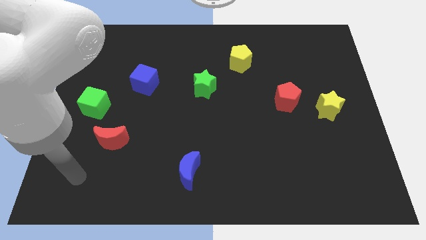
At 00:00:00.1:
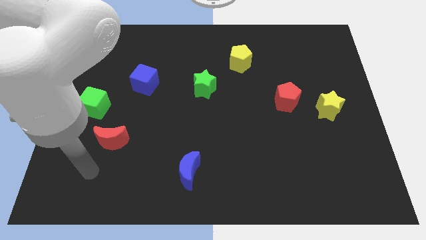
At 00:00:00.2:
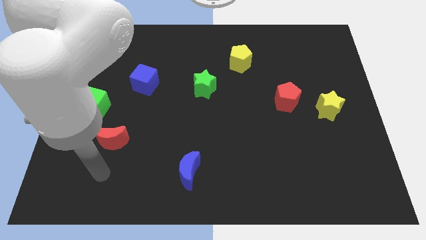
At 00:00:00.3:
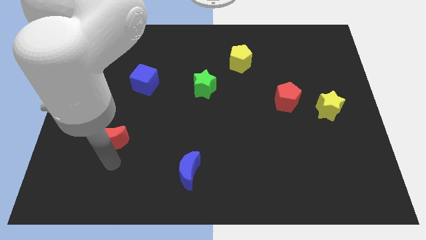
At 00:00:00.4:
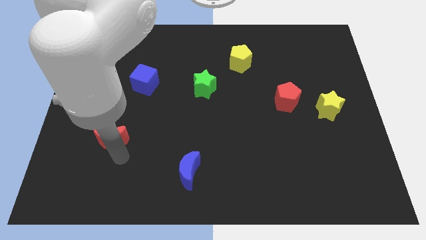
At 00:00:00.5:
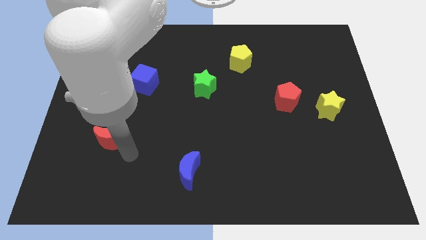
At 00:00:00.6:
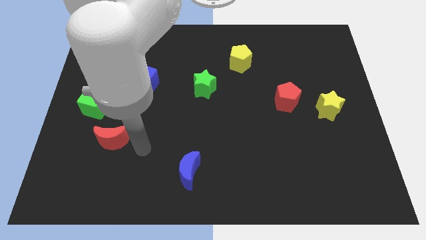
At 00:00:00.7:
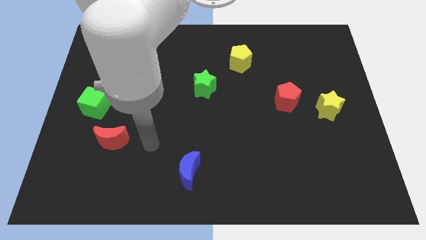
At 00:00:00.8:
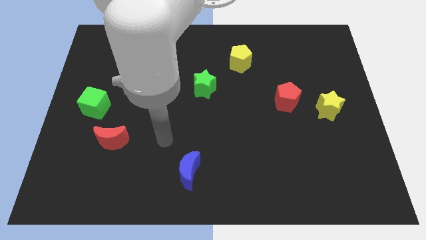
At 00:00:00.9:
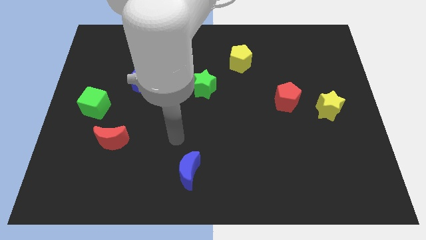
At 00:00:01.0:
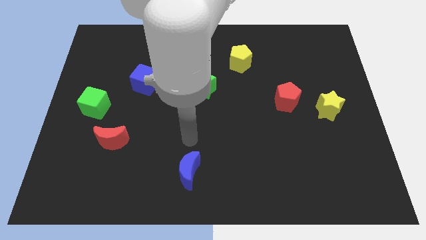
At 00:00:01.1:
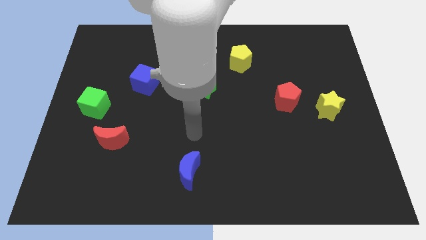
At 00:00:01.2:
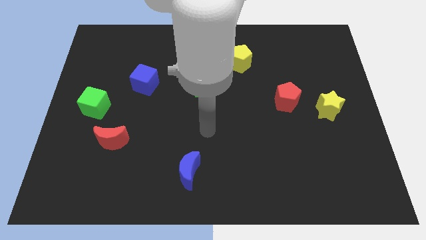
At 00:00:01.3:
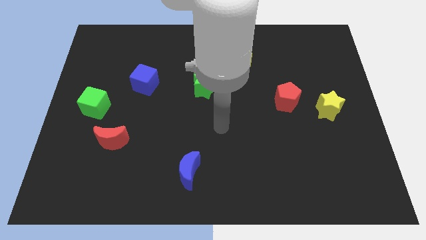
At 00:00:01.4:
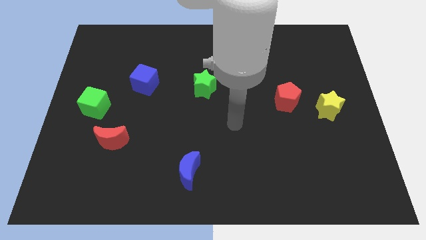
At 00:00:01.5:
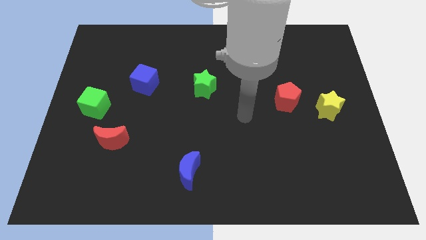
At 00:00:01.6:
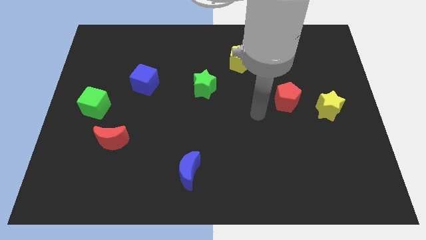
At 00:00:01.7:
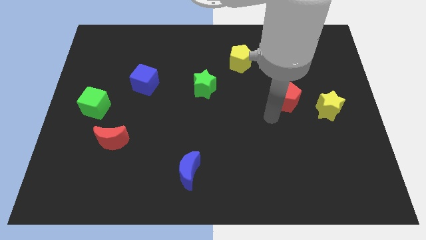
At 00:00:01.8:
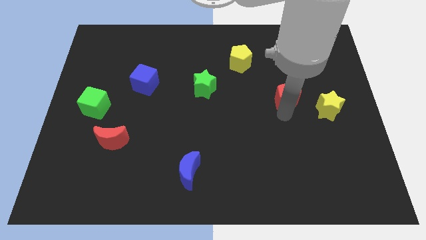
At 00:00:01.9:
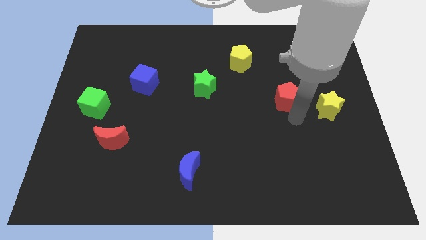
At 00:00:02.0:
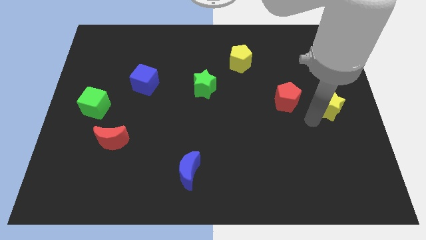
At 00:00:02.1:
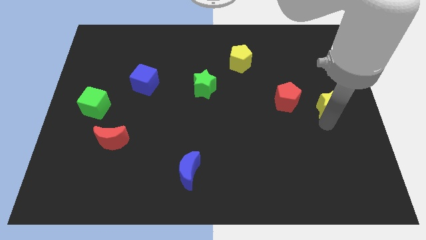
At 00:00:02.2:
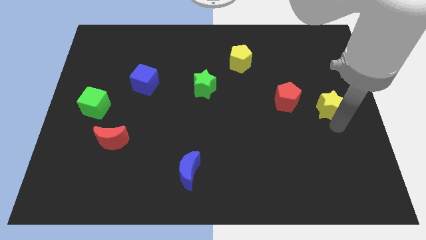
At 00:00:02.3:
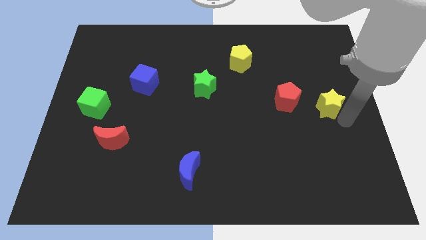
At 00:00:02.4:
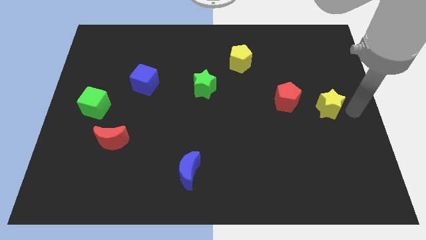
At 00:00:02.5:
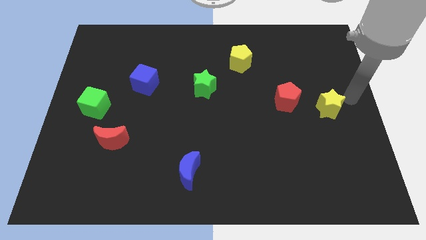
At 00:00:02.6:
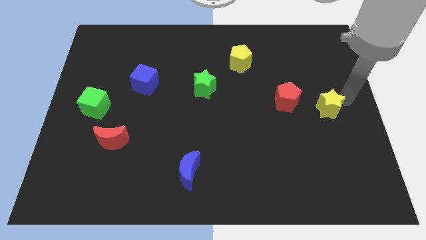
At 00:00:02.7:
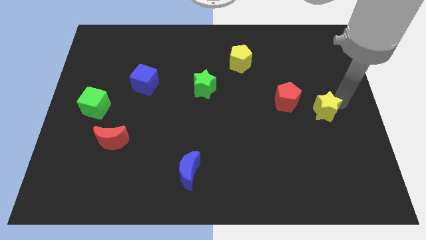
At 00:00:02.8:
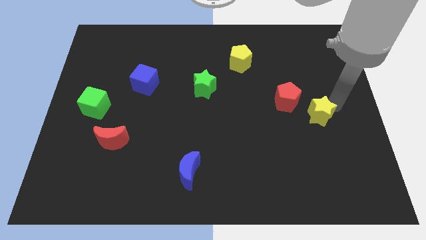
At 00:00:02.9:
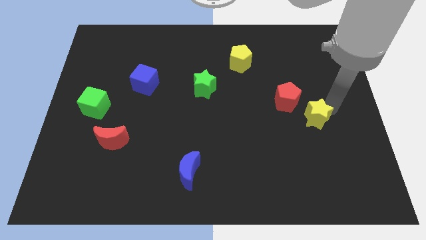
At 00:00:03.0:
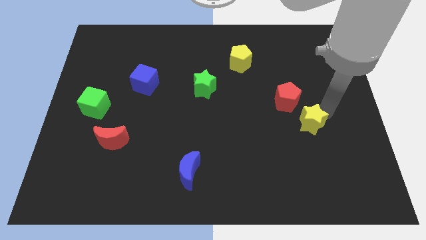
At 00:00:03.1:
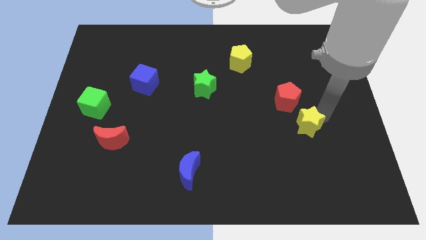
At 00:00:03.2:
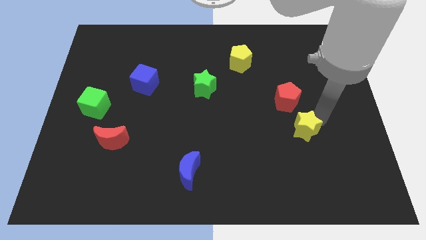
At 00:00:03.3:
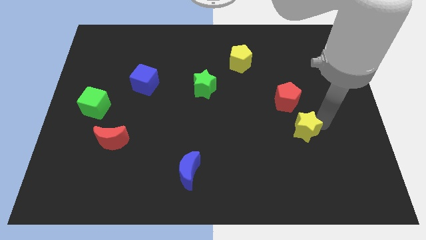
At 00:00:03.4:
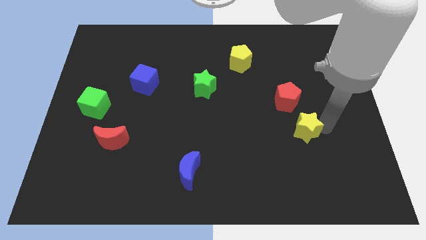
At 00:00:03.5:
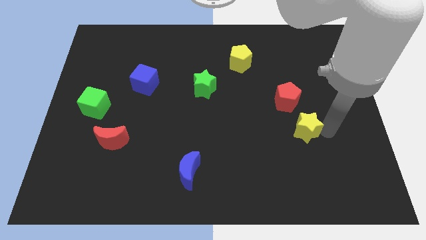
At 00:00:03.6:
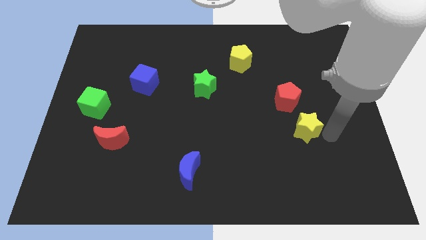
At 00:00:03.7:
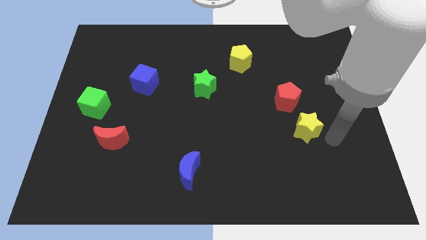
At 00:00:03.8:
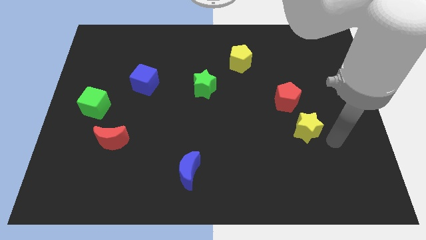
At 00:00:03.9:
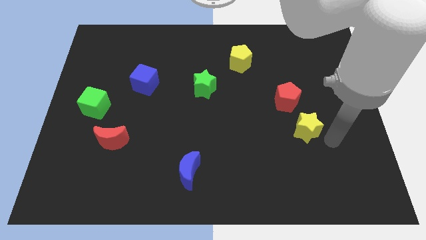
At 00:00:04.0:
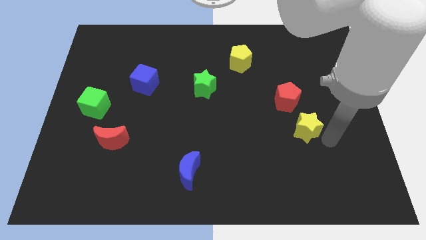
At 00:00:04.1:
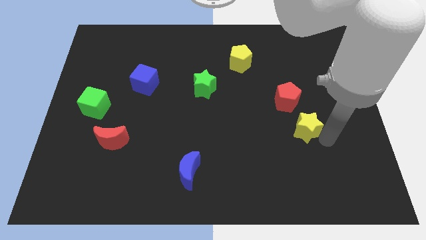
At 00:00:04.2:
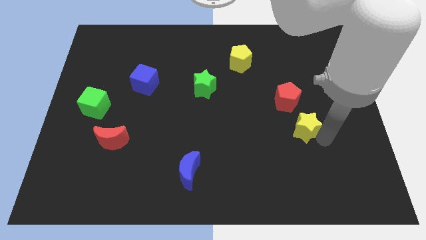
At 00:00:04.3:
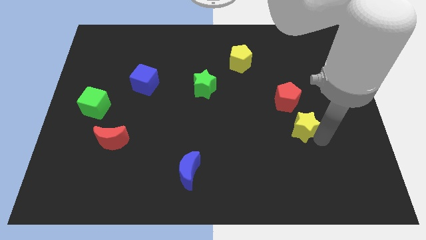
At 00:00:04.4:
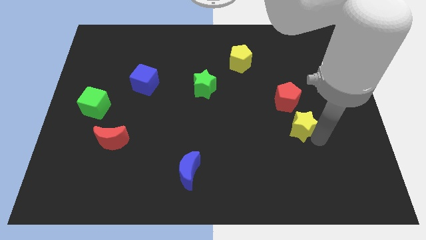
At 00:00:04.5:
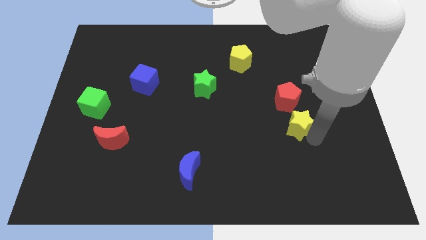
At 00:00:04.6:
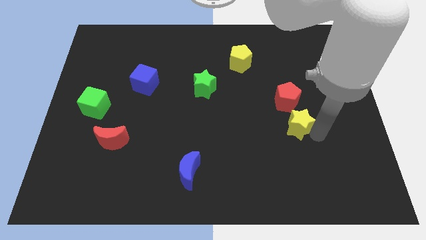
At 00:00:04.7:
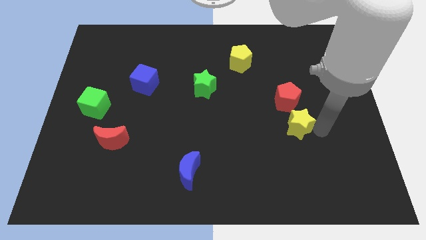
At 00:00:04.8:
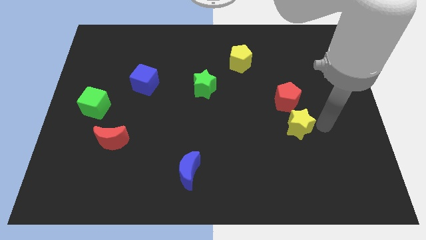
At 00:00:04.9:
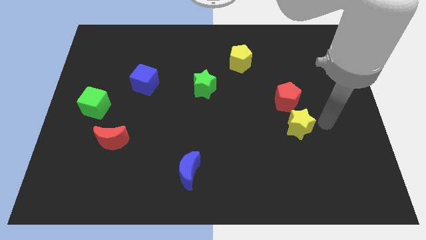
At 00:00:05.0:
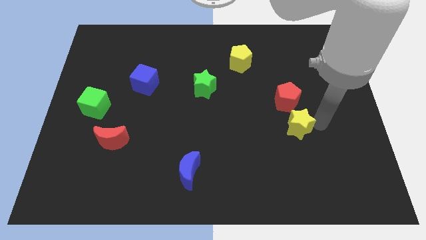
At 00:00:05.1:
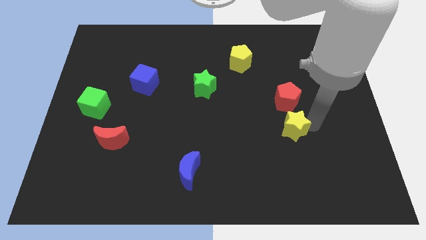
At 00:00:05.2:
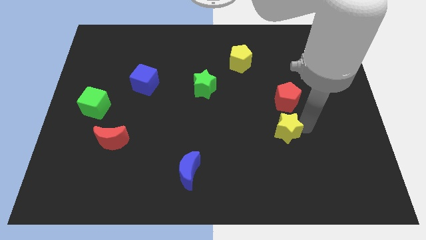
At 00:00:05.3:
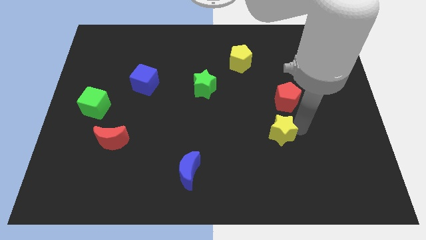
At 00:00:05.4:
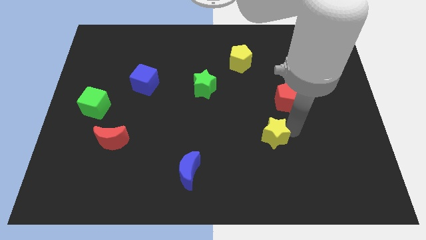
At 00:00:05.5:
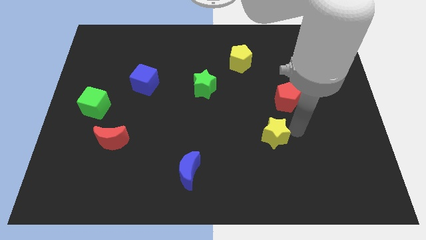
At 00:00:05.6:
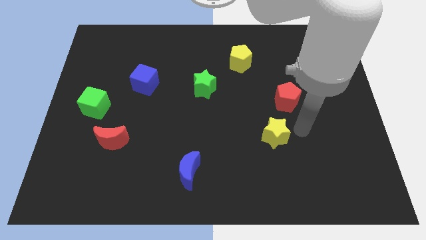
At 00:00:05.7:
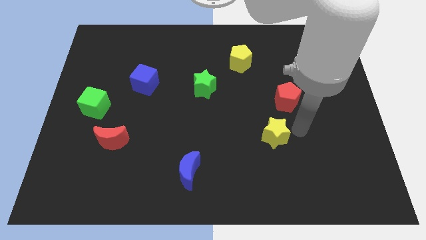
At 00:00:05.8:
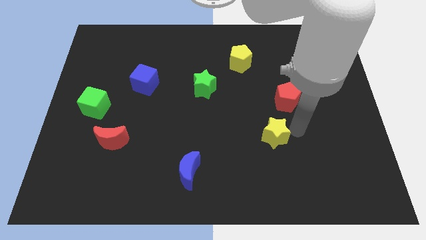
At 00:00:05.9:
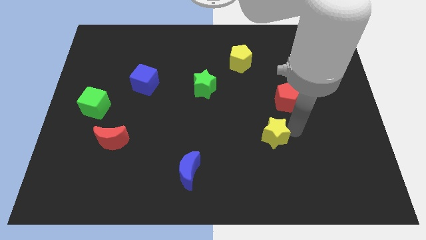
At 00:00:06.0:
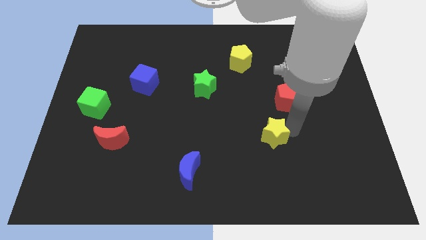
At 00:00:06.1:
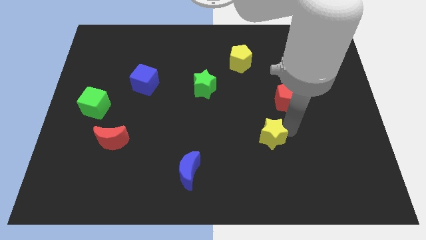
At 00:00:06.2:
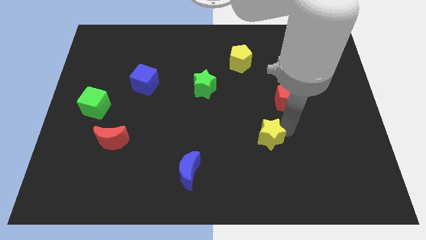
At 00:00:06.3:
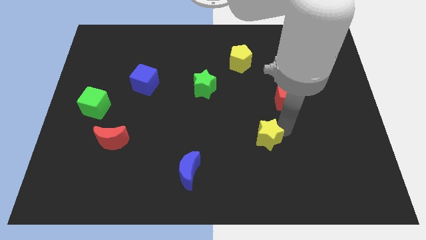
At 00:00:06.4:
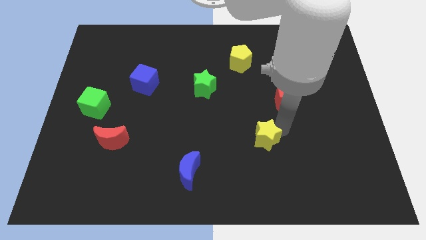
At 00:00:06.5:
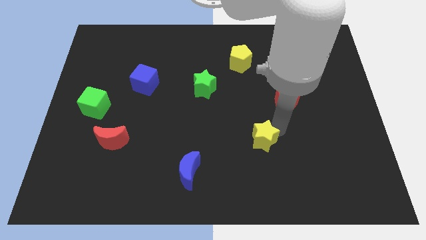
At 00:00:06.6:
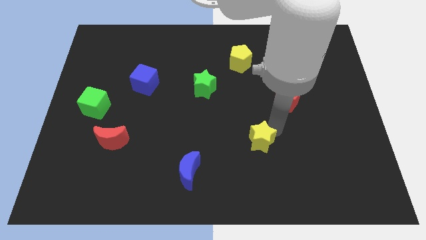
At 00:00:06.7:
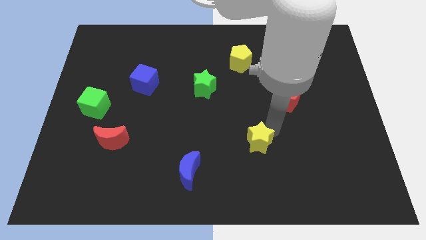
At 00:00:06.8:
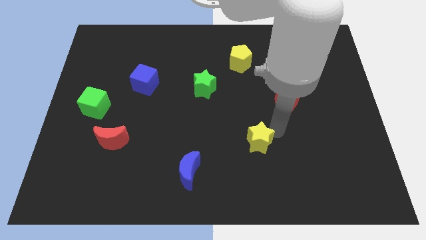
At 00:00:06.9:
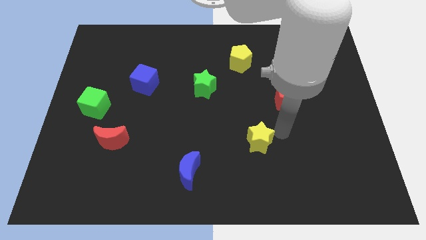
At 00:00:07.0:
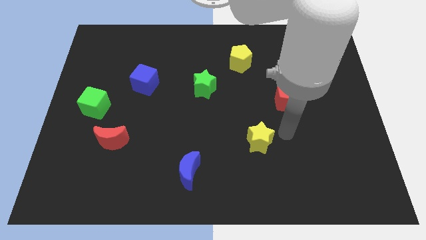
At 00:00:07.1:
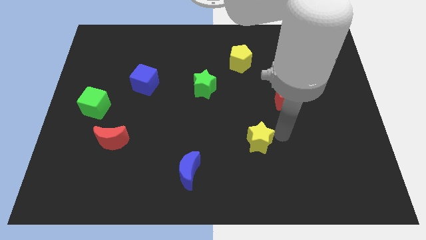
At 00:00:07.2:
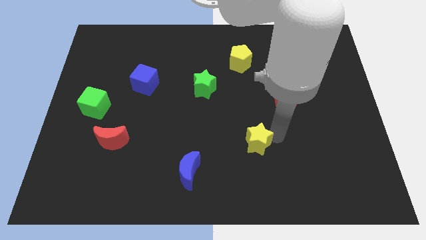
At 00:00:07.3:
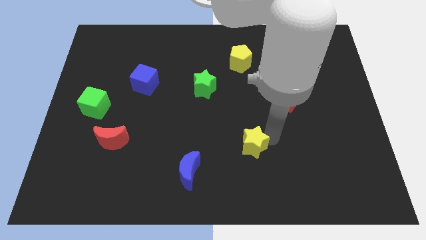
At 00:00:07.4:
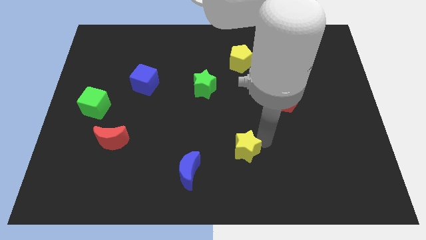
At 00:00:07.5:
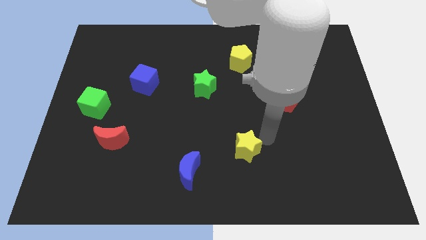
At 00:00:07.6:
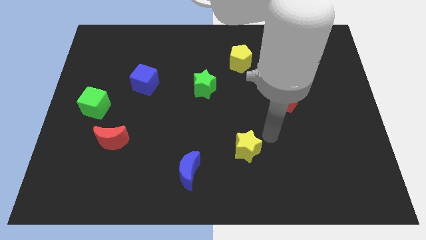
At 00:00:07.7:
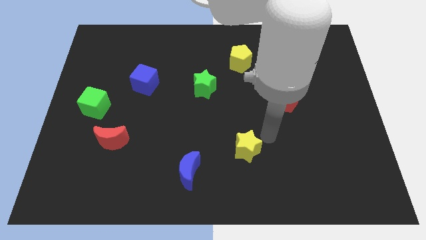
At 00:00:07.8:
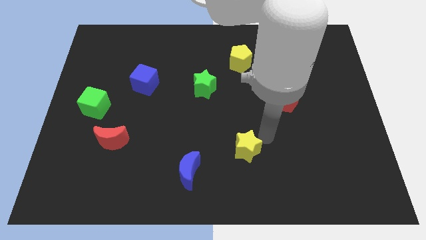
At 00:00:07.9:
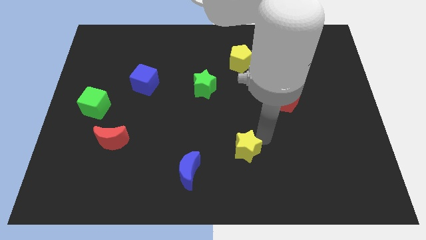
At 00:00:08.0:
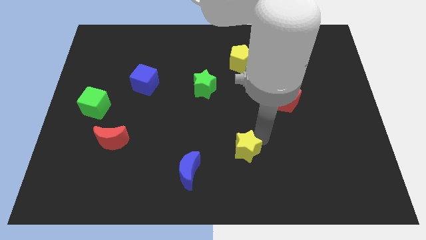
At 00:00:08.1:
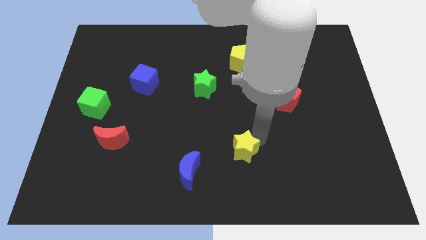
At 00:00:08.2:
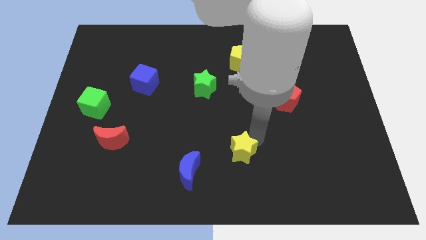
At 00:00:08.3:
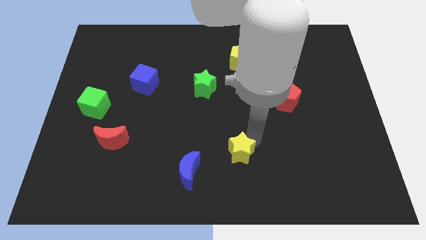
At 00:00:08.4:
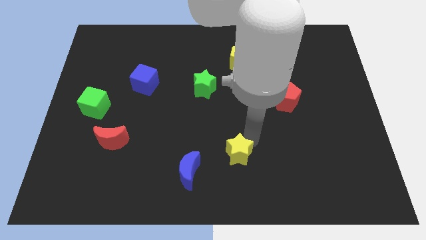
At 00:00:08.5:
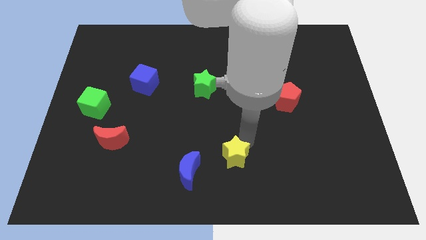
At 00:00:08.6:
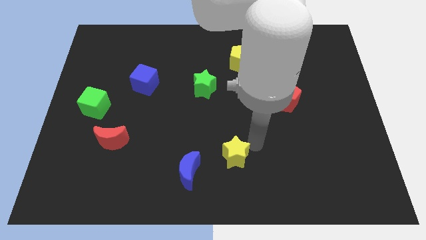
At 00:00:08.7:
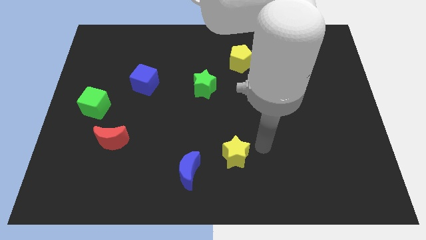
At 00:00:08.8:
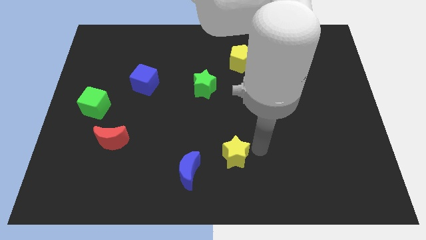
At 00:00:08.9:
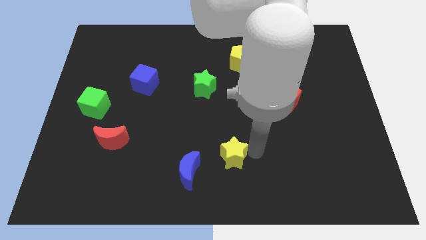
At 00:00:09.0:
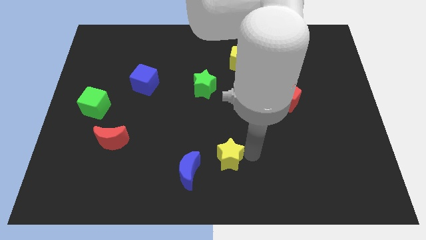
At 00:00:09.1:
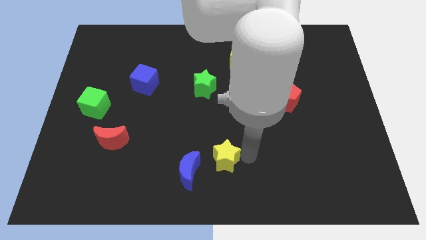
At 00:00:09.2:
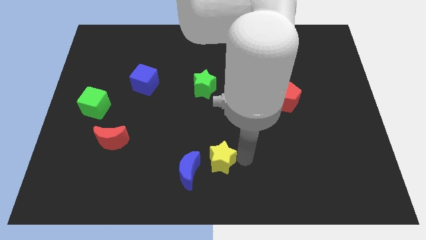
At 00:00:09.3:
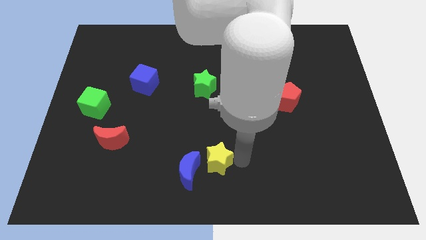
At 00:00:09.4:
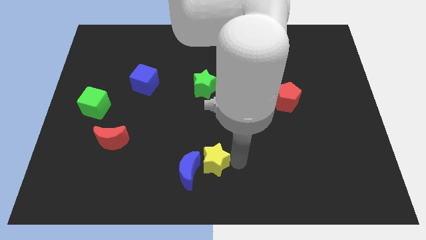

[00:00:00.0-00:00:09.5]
put the yellow star to the blue moon
